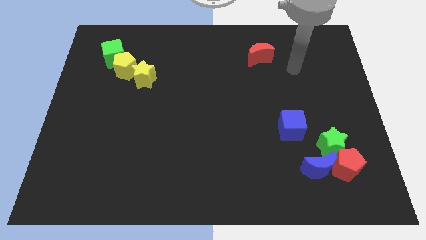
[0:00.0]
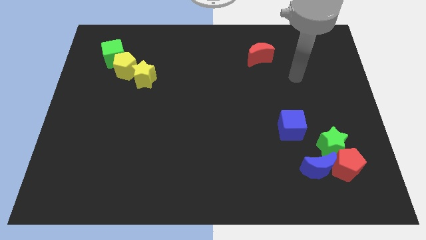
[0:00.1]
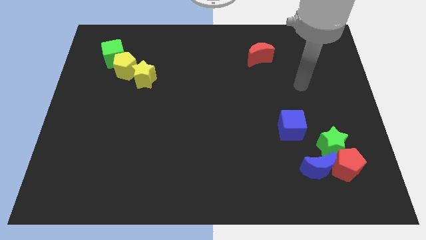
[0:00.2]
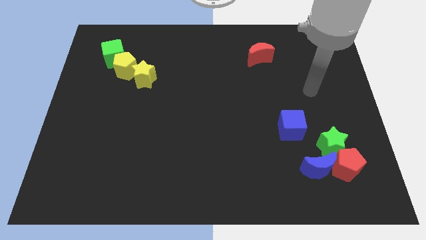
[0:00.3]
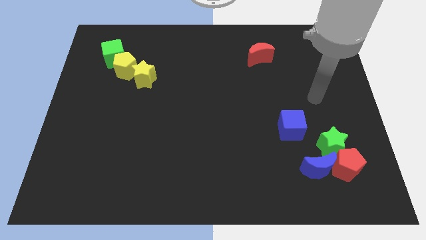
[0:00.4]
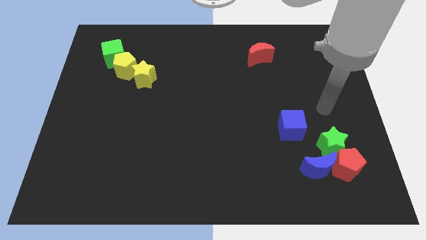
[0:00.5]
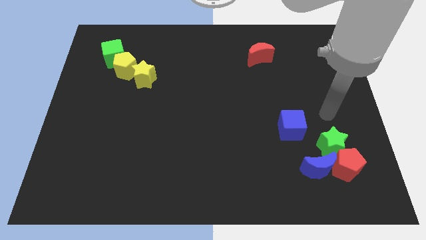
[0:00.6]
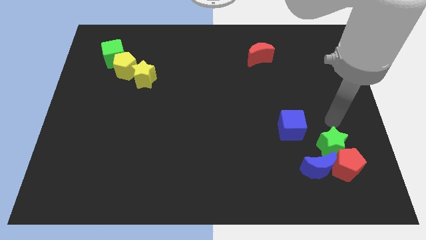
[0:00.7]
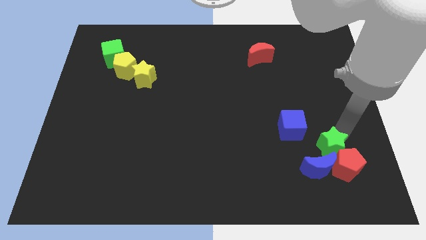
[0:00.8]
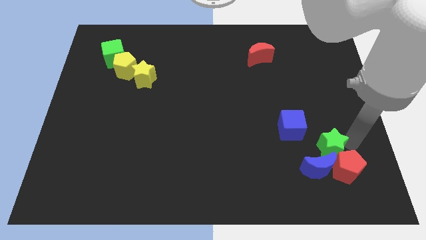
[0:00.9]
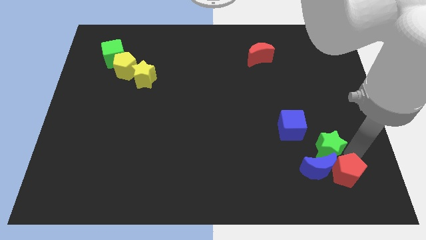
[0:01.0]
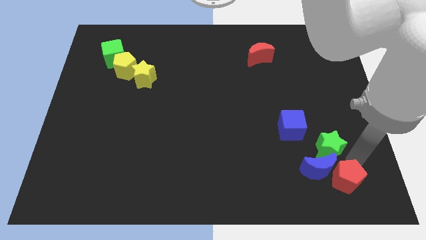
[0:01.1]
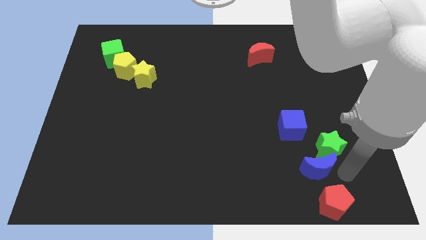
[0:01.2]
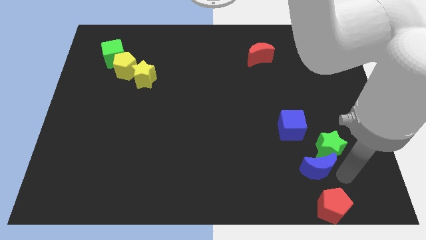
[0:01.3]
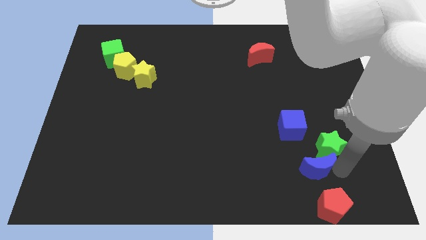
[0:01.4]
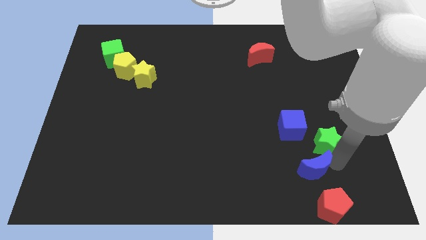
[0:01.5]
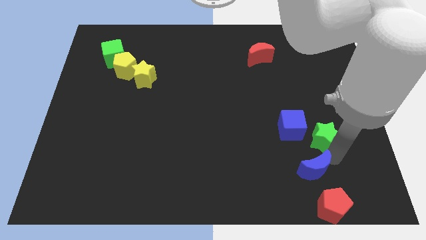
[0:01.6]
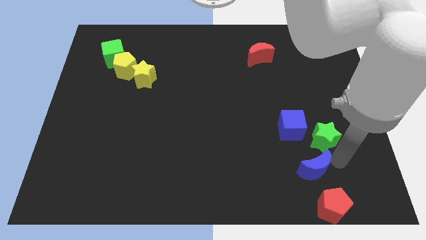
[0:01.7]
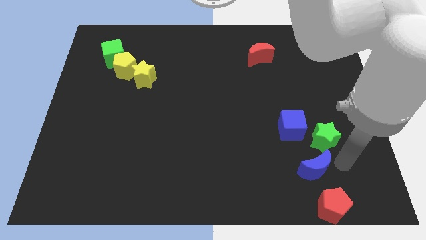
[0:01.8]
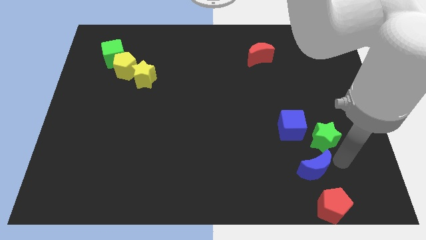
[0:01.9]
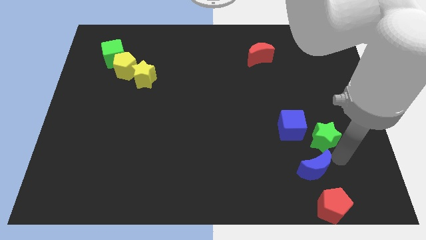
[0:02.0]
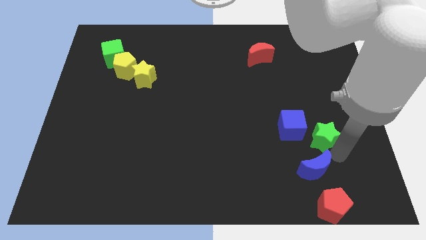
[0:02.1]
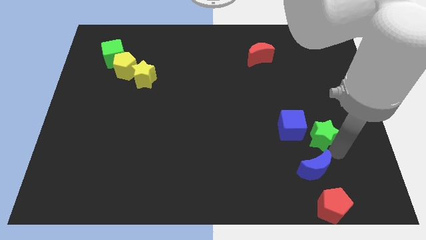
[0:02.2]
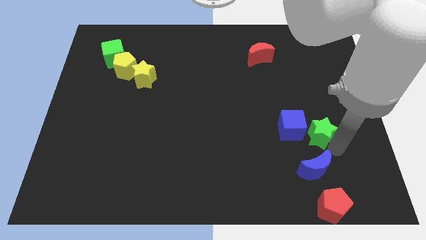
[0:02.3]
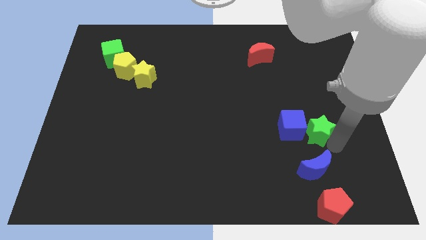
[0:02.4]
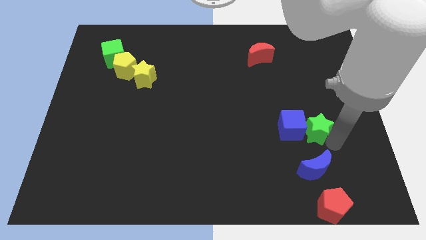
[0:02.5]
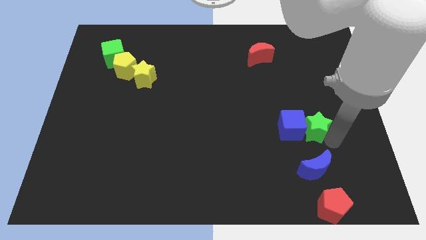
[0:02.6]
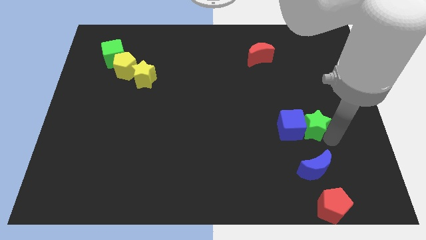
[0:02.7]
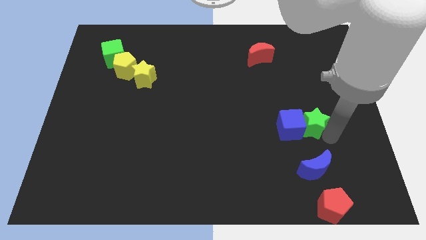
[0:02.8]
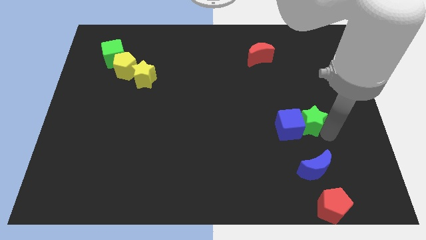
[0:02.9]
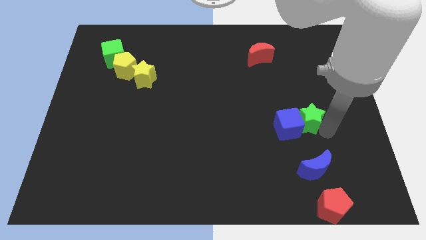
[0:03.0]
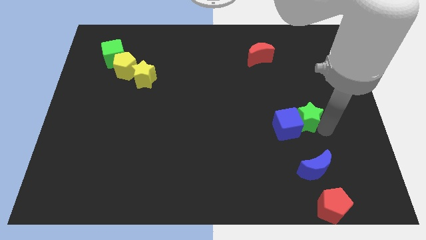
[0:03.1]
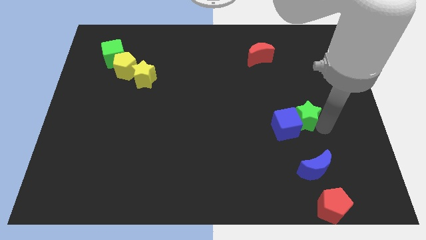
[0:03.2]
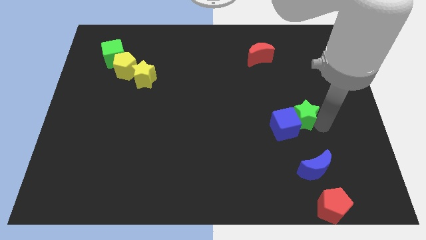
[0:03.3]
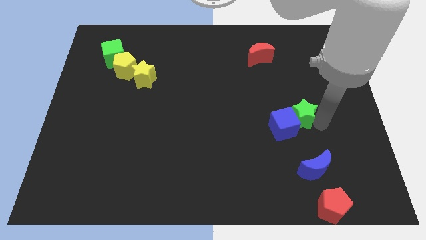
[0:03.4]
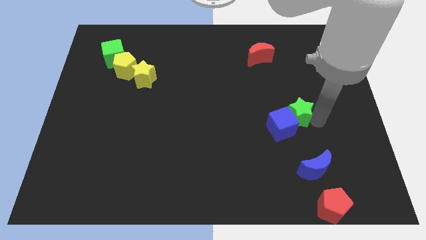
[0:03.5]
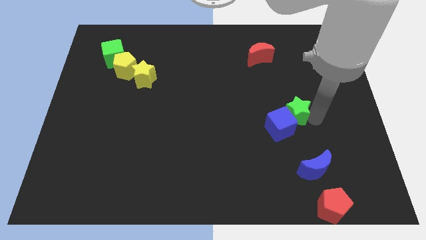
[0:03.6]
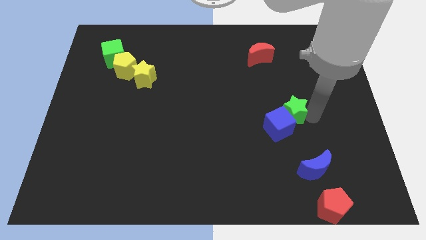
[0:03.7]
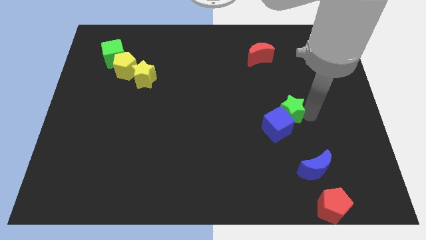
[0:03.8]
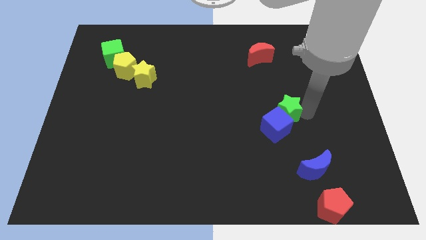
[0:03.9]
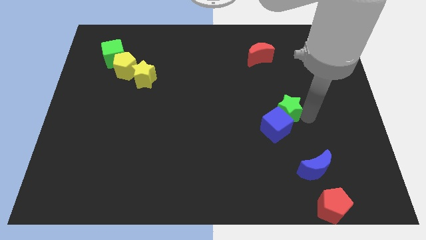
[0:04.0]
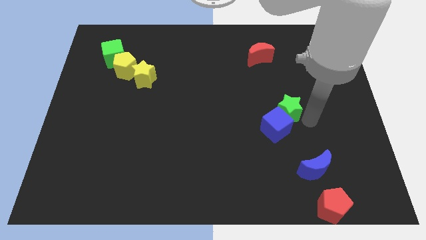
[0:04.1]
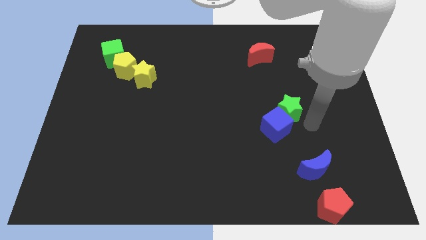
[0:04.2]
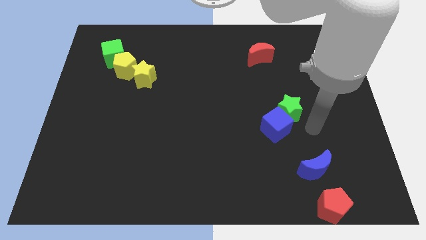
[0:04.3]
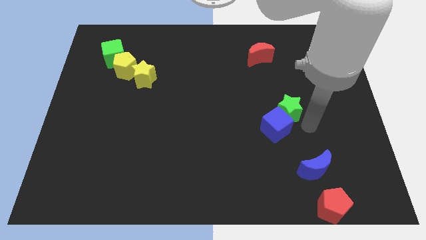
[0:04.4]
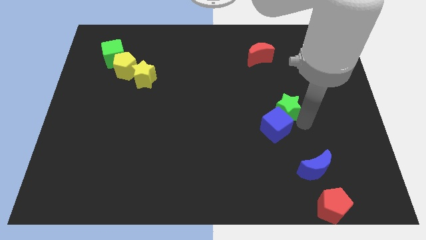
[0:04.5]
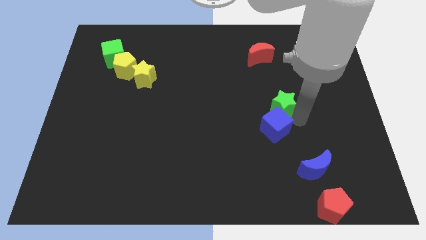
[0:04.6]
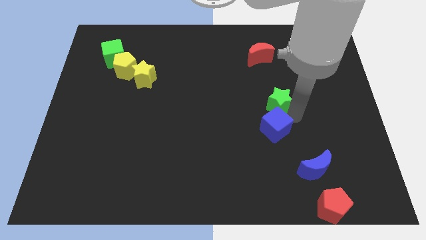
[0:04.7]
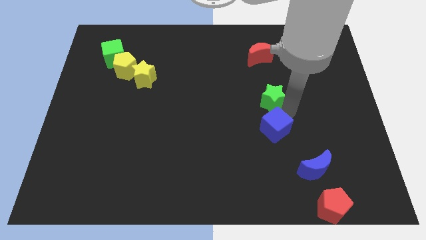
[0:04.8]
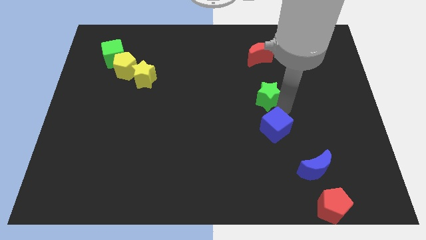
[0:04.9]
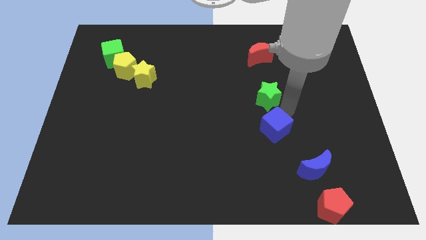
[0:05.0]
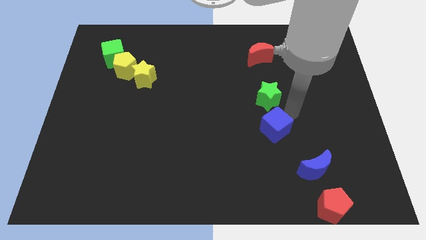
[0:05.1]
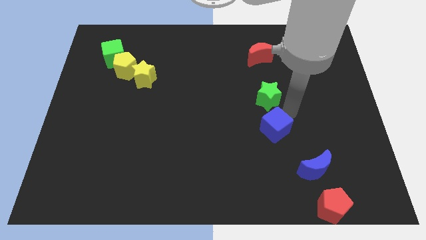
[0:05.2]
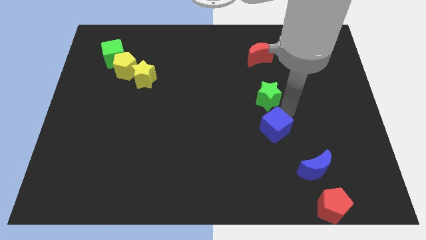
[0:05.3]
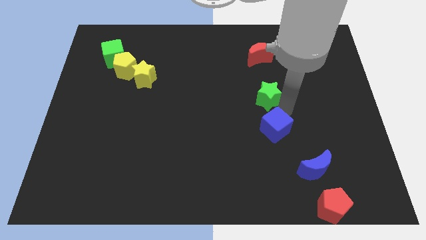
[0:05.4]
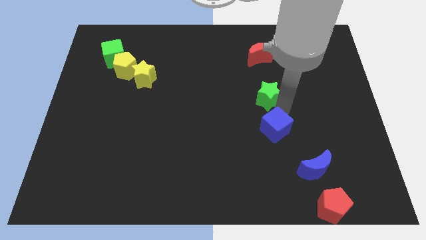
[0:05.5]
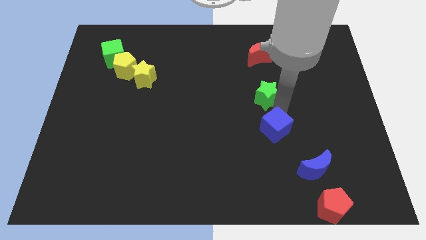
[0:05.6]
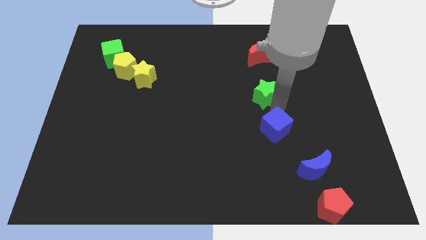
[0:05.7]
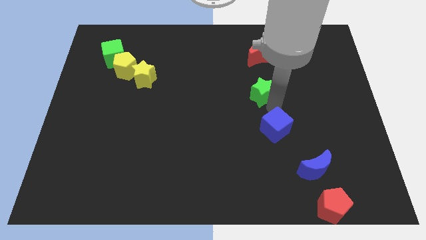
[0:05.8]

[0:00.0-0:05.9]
slide the green star upwards and to the left

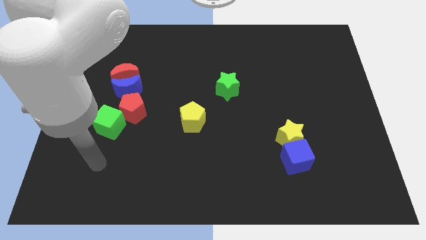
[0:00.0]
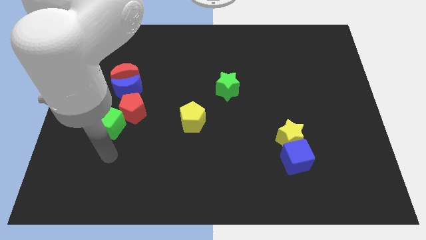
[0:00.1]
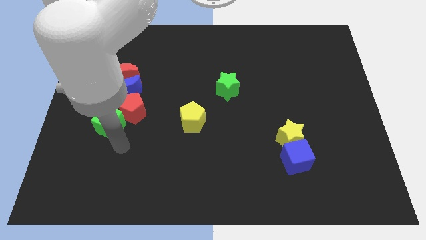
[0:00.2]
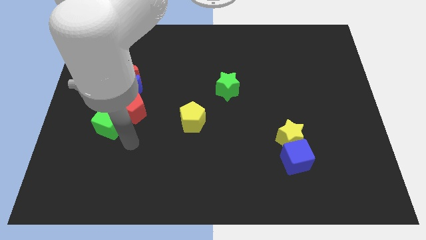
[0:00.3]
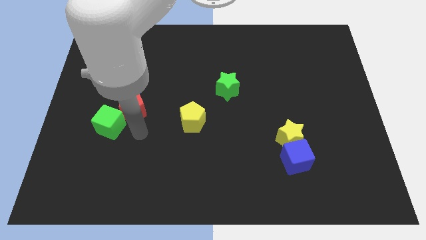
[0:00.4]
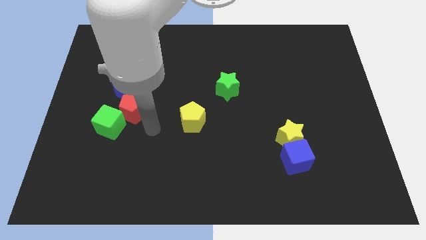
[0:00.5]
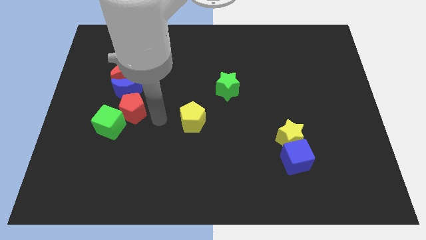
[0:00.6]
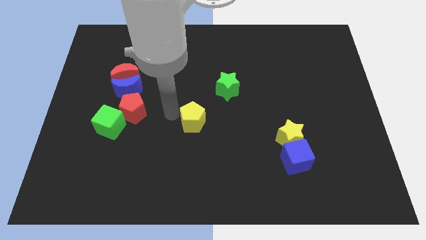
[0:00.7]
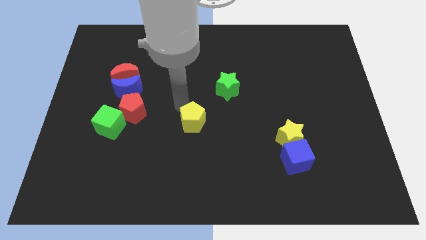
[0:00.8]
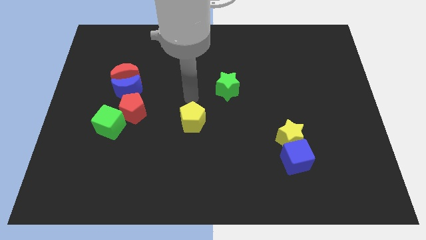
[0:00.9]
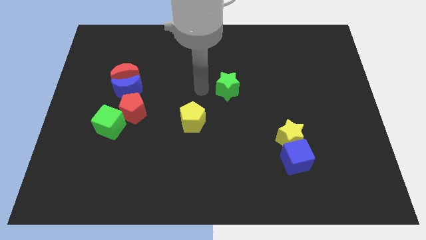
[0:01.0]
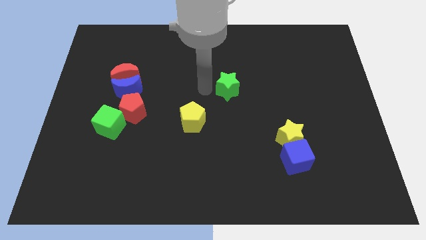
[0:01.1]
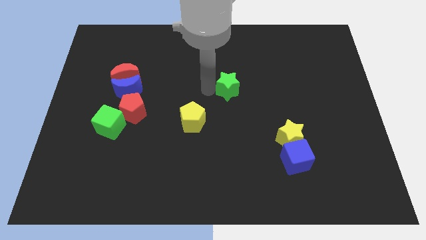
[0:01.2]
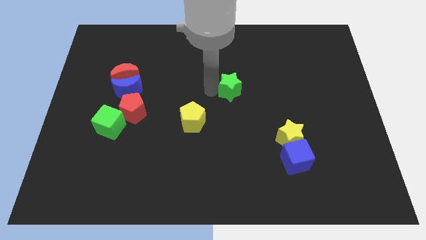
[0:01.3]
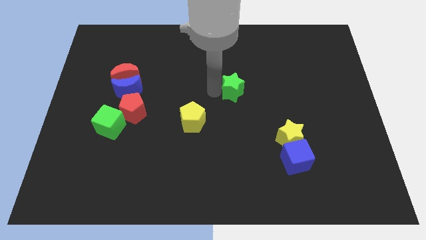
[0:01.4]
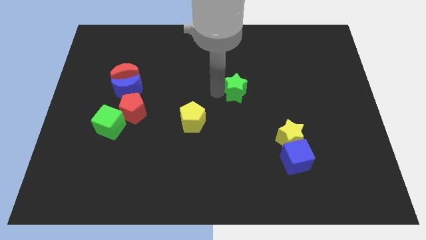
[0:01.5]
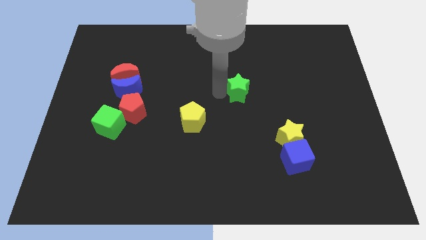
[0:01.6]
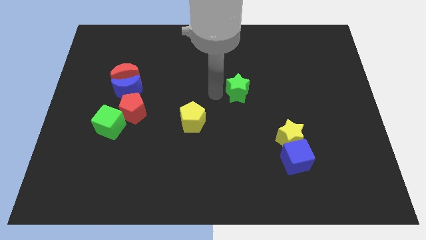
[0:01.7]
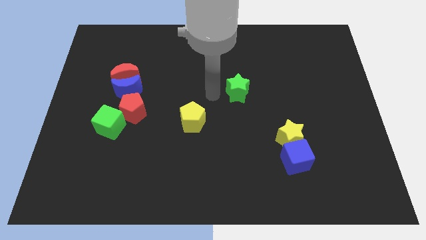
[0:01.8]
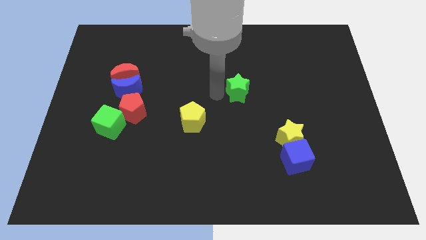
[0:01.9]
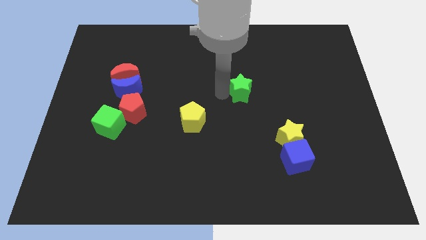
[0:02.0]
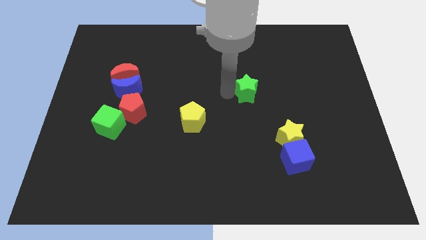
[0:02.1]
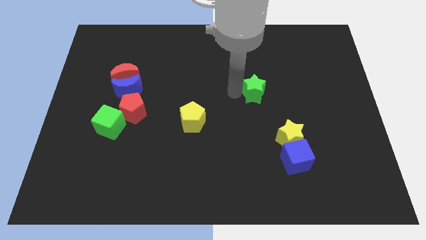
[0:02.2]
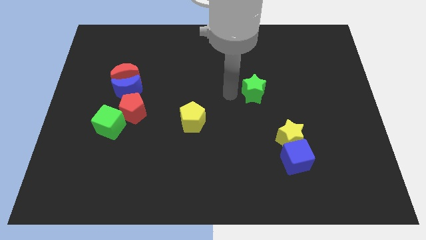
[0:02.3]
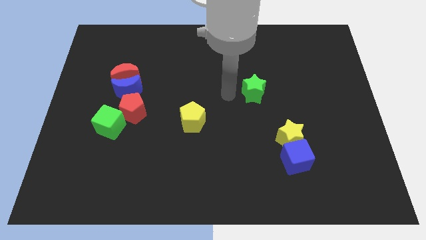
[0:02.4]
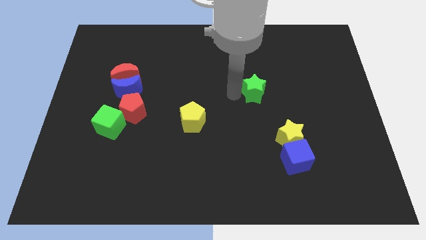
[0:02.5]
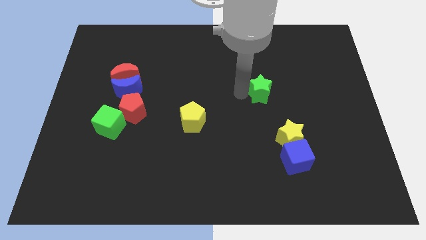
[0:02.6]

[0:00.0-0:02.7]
slightly move the green star right
